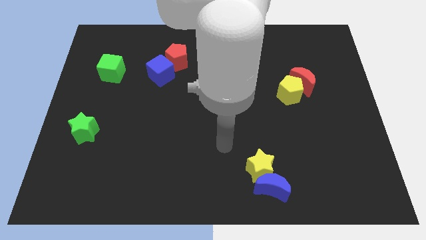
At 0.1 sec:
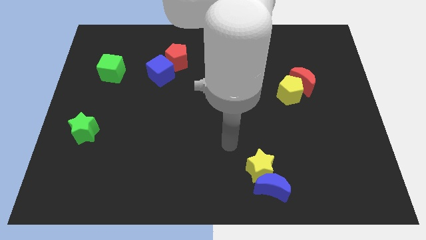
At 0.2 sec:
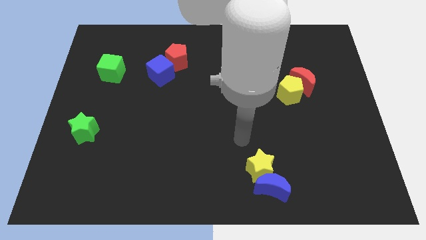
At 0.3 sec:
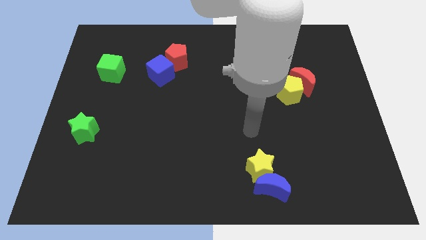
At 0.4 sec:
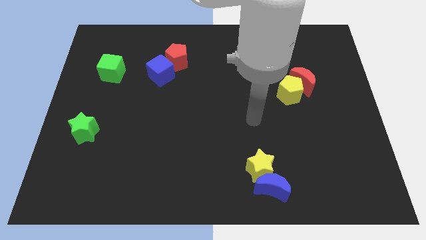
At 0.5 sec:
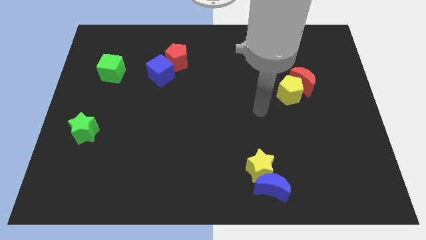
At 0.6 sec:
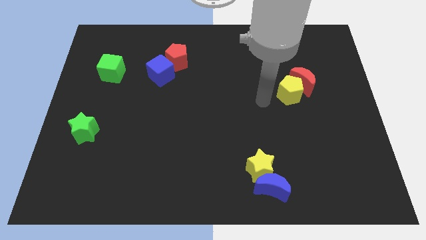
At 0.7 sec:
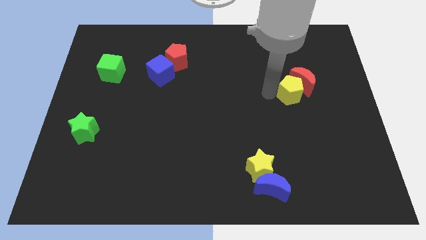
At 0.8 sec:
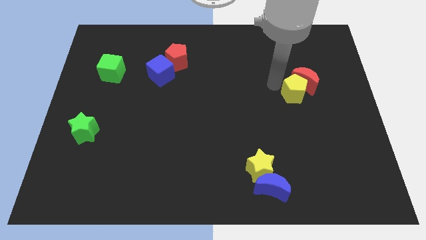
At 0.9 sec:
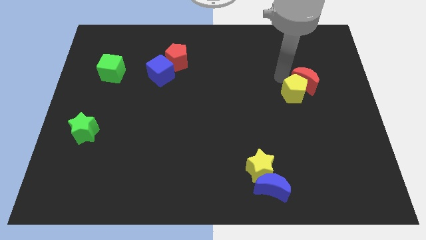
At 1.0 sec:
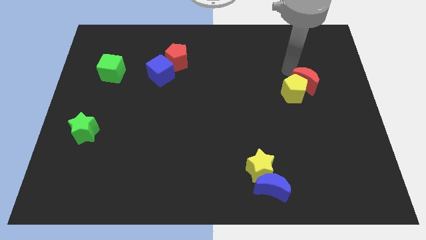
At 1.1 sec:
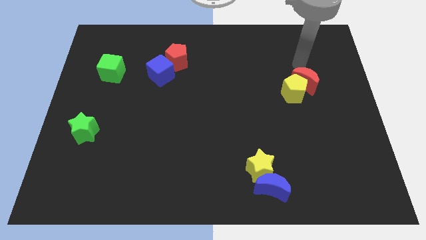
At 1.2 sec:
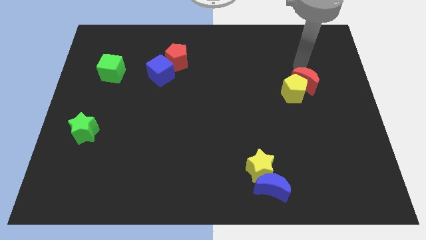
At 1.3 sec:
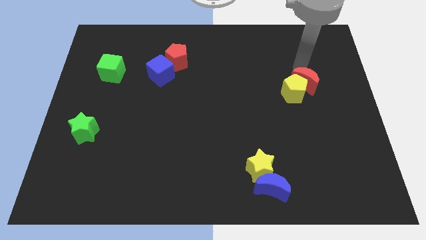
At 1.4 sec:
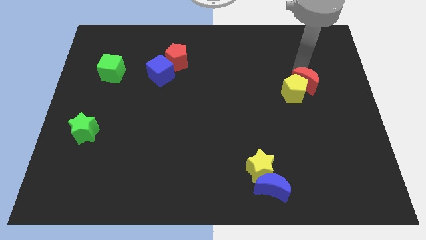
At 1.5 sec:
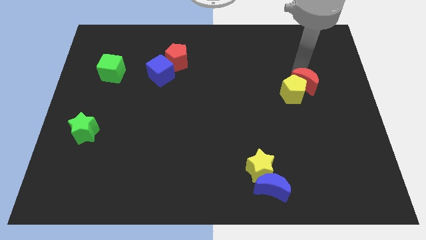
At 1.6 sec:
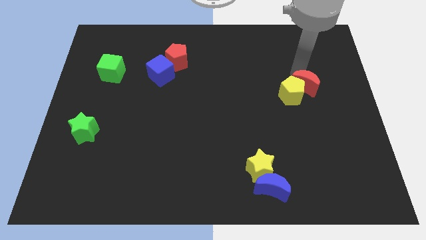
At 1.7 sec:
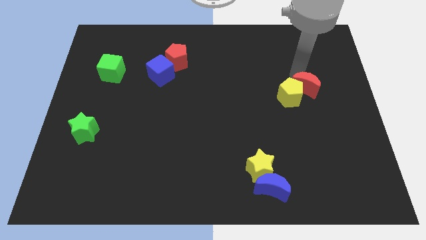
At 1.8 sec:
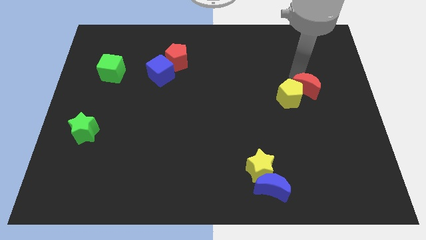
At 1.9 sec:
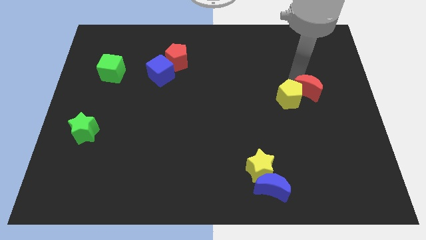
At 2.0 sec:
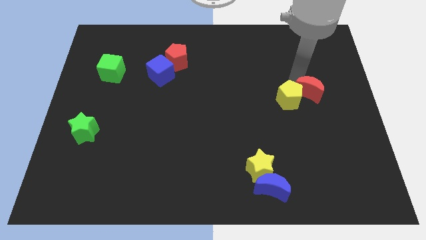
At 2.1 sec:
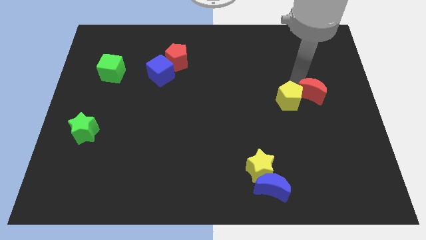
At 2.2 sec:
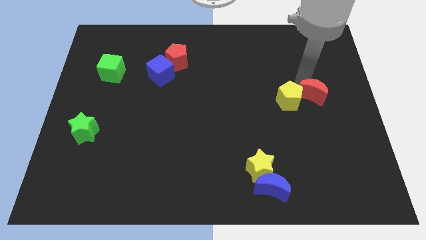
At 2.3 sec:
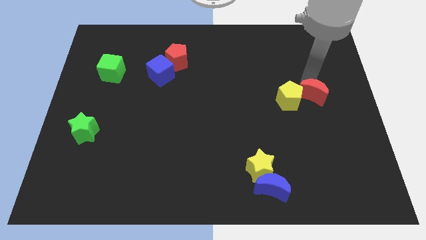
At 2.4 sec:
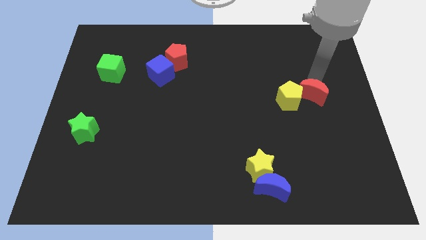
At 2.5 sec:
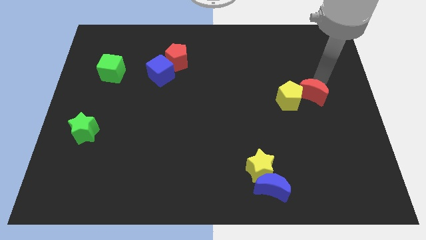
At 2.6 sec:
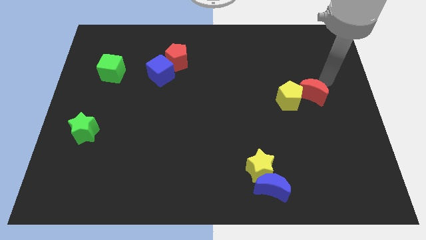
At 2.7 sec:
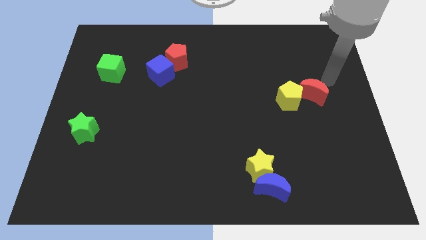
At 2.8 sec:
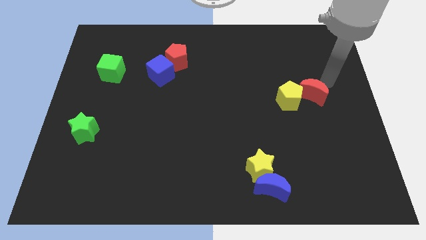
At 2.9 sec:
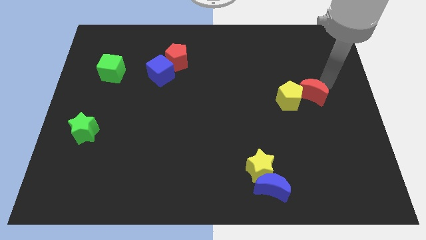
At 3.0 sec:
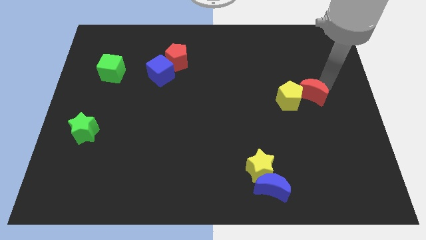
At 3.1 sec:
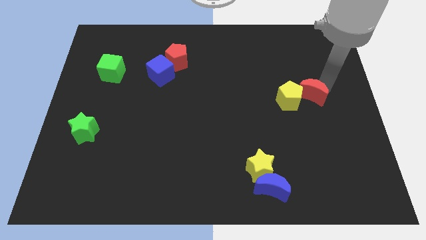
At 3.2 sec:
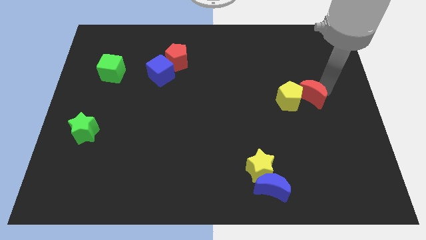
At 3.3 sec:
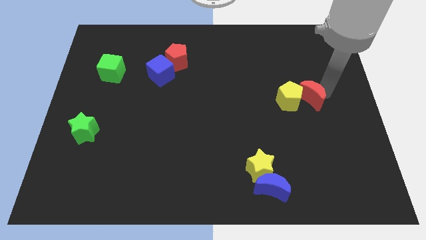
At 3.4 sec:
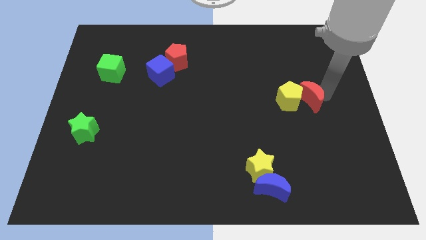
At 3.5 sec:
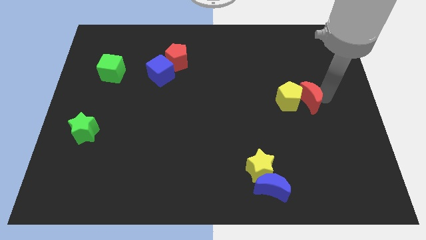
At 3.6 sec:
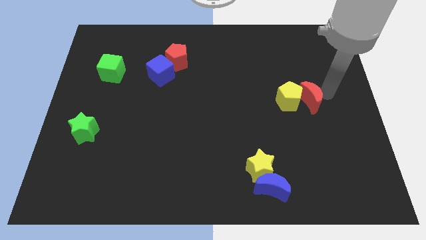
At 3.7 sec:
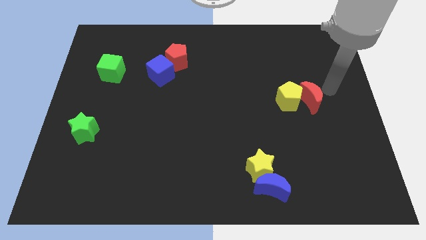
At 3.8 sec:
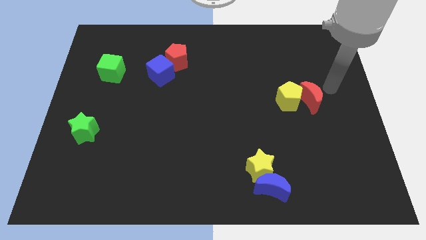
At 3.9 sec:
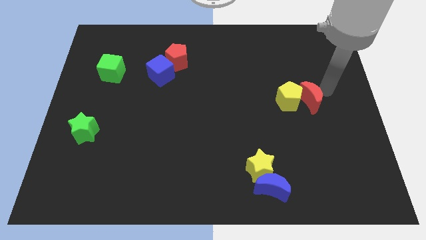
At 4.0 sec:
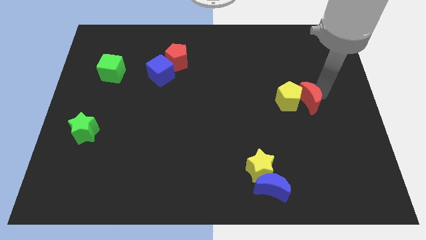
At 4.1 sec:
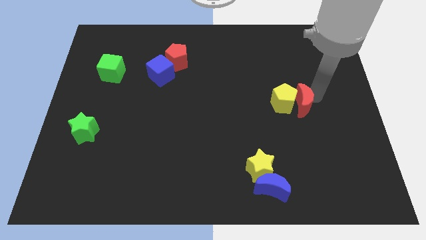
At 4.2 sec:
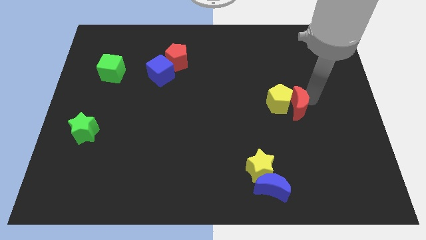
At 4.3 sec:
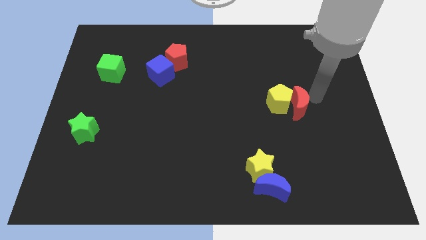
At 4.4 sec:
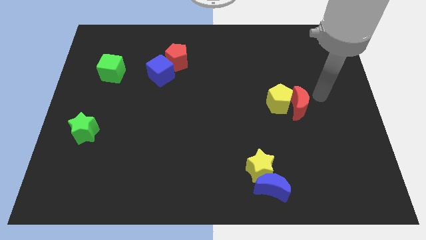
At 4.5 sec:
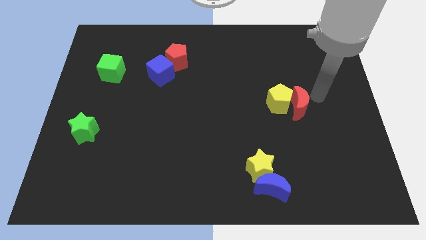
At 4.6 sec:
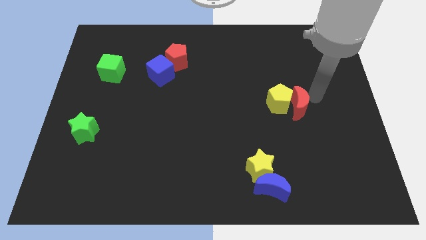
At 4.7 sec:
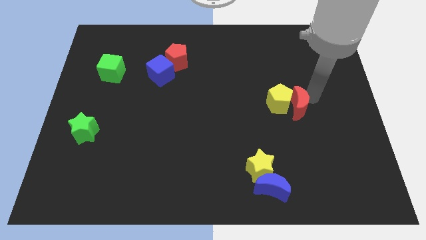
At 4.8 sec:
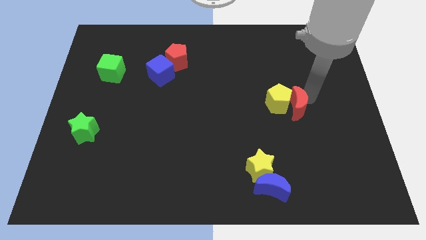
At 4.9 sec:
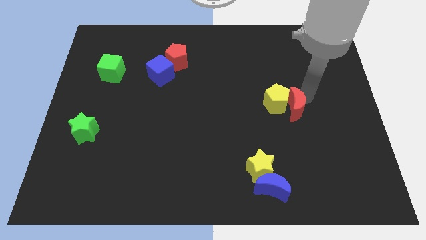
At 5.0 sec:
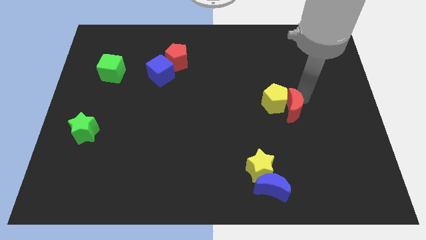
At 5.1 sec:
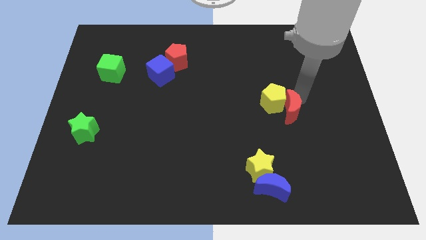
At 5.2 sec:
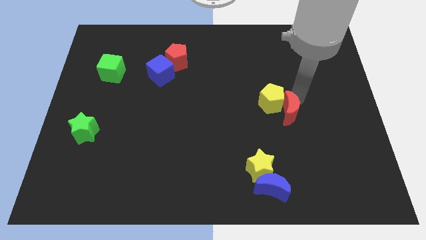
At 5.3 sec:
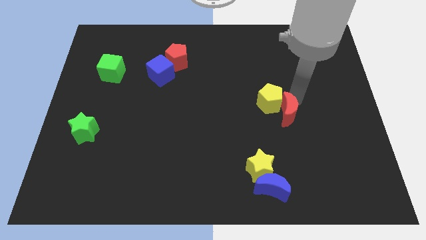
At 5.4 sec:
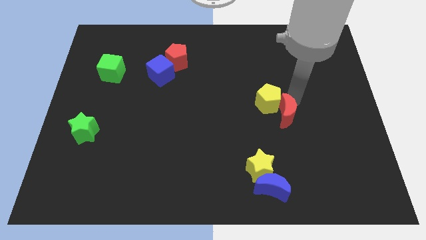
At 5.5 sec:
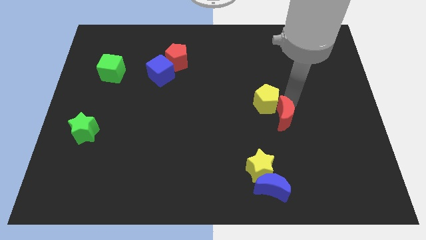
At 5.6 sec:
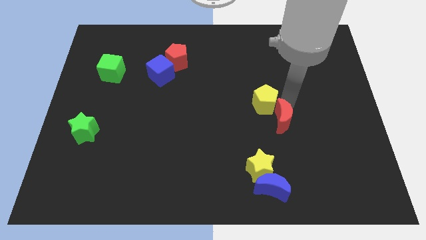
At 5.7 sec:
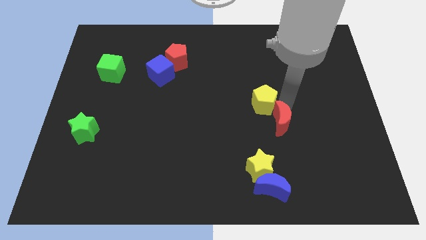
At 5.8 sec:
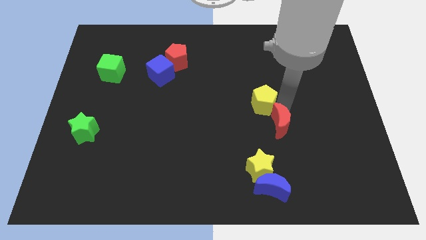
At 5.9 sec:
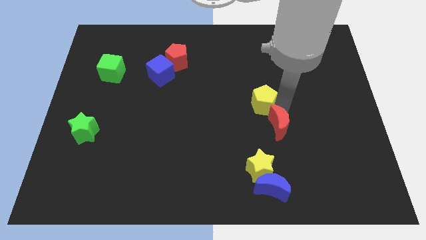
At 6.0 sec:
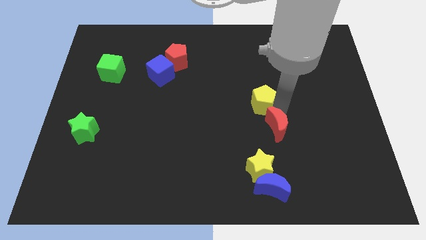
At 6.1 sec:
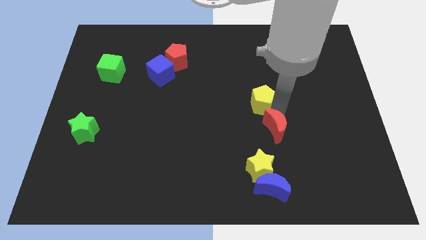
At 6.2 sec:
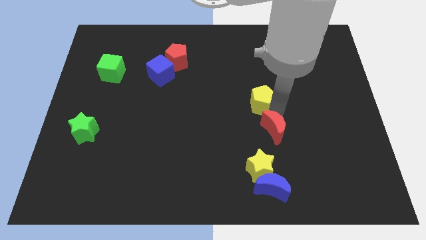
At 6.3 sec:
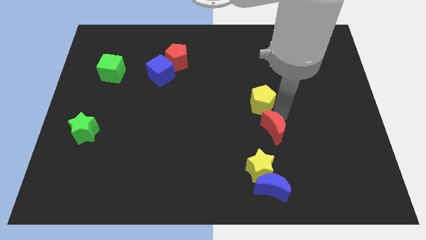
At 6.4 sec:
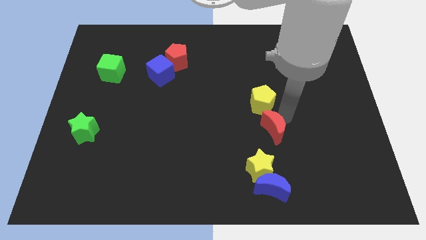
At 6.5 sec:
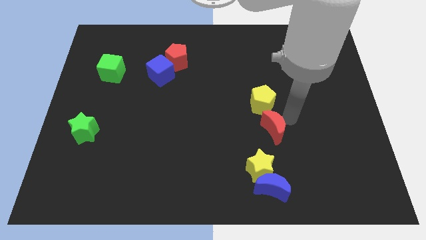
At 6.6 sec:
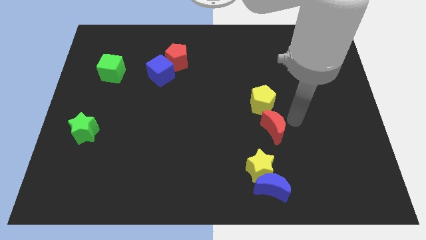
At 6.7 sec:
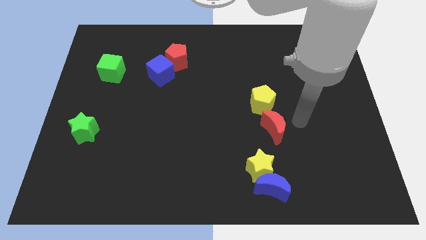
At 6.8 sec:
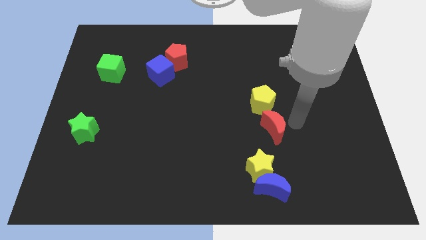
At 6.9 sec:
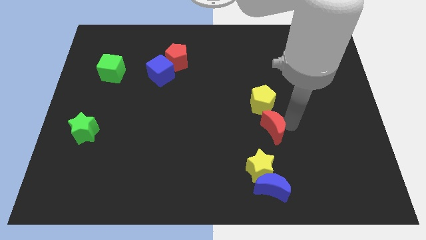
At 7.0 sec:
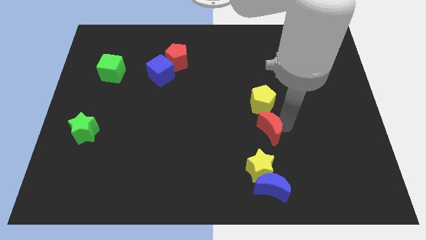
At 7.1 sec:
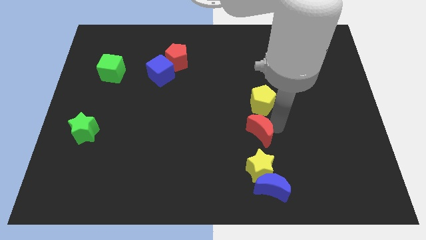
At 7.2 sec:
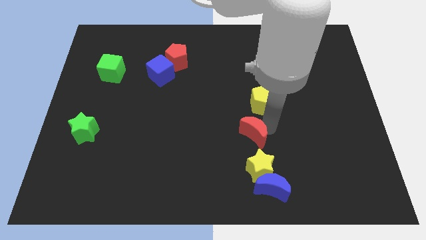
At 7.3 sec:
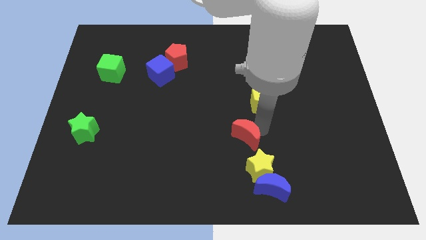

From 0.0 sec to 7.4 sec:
slide the red moon to the top left side of the yellow star
